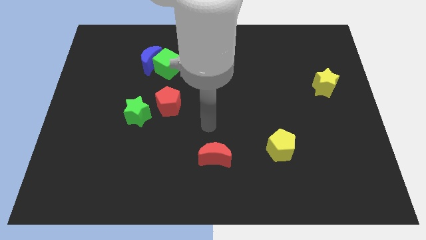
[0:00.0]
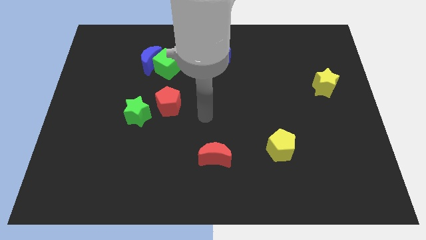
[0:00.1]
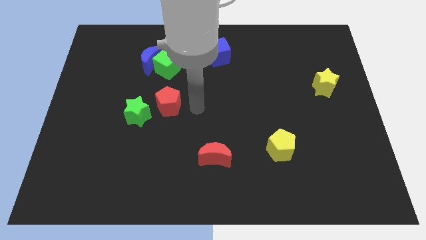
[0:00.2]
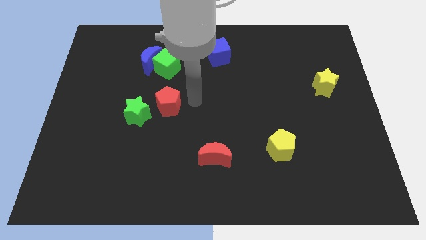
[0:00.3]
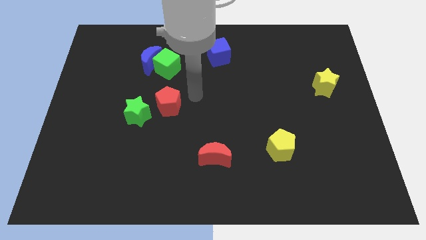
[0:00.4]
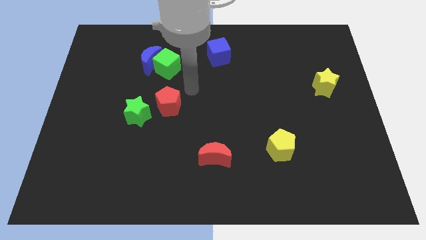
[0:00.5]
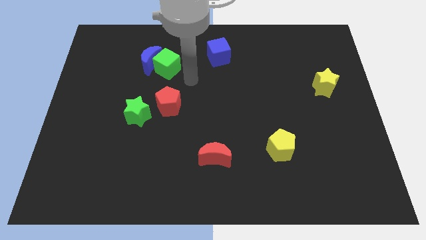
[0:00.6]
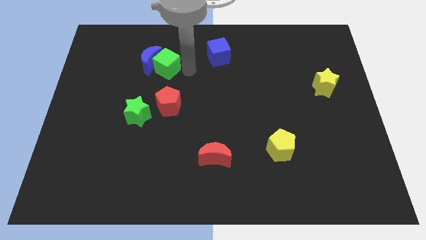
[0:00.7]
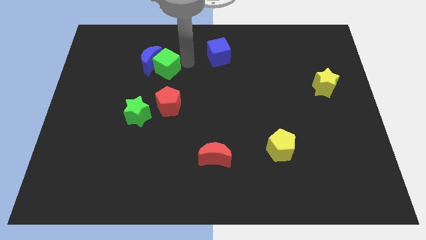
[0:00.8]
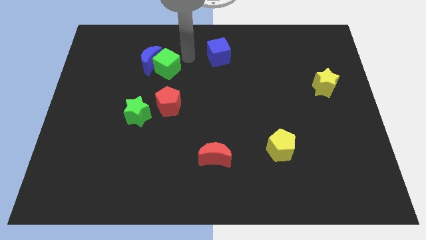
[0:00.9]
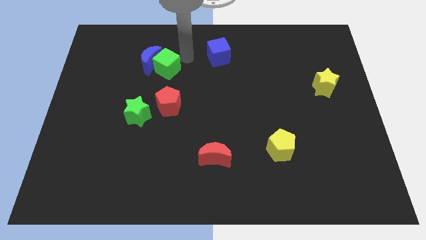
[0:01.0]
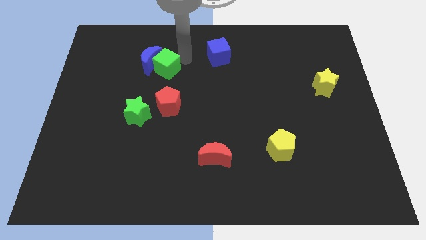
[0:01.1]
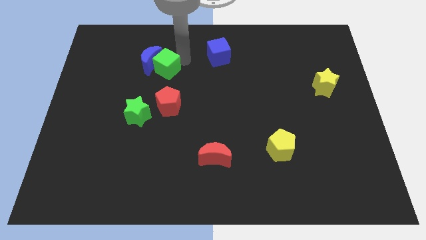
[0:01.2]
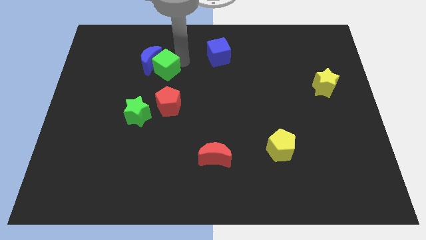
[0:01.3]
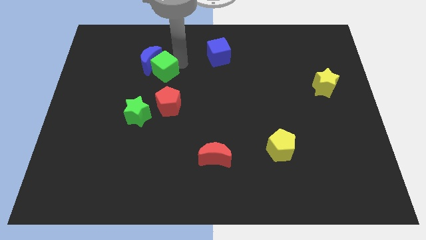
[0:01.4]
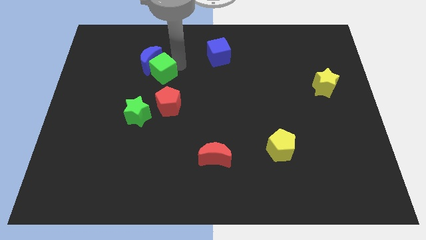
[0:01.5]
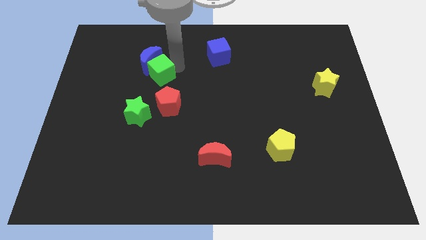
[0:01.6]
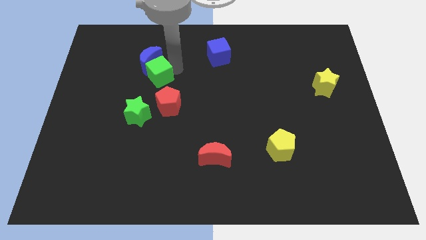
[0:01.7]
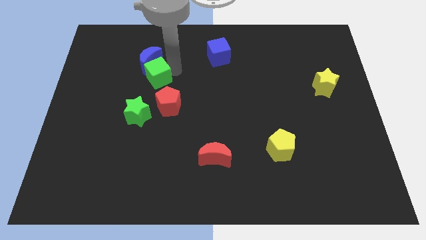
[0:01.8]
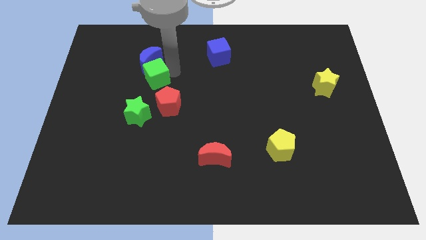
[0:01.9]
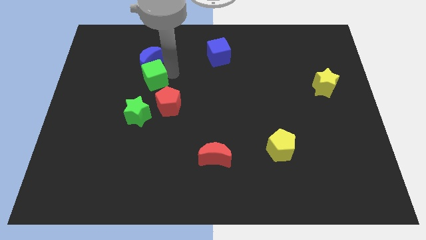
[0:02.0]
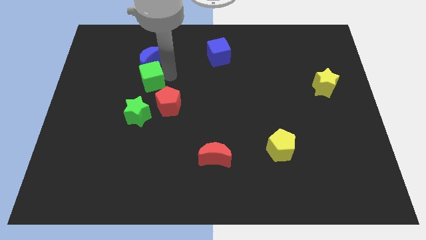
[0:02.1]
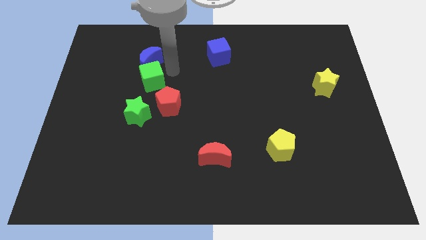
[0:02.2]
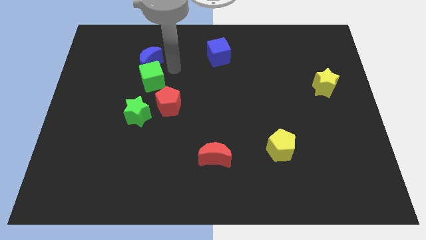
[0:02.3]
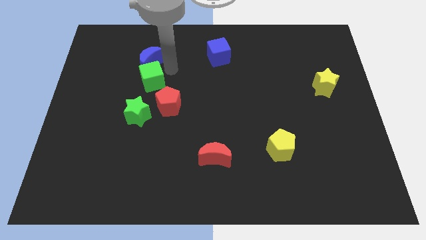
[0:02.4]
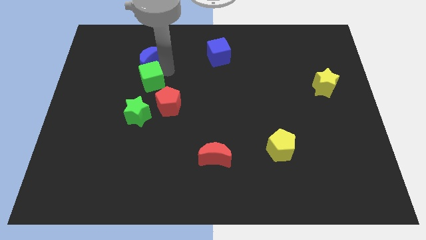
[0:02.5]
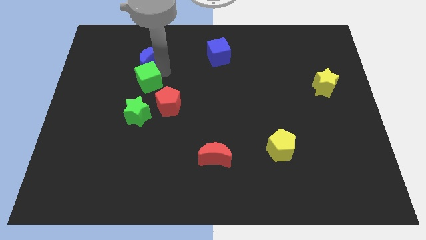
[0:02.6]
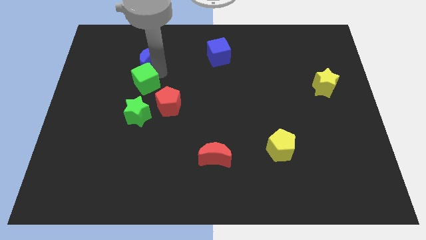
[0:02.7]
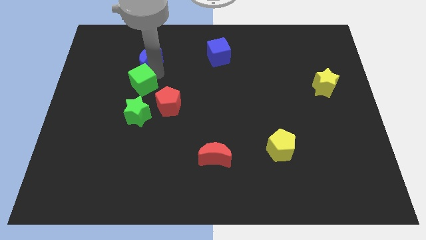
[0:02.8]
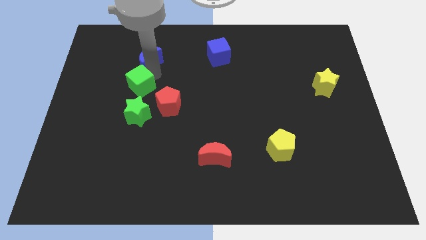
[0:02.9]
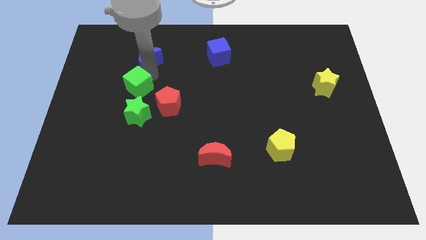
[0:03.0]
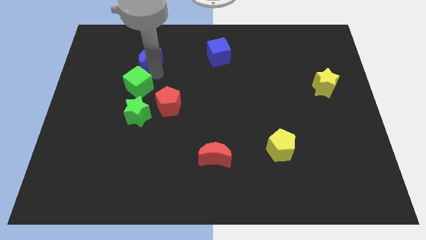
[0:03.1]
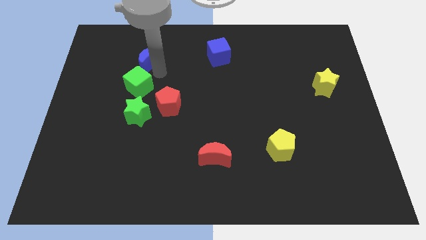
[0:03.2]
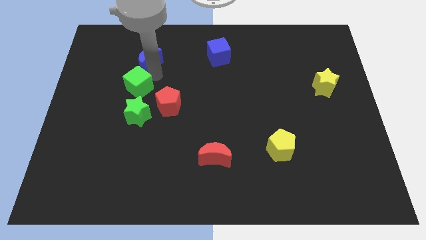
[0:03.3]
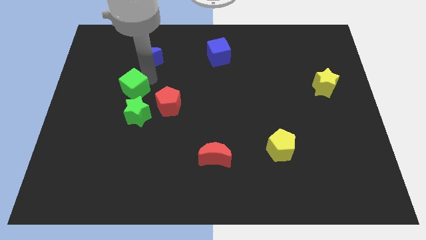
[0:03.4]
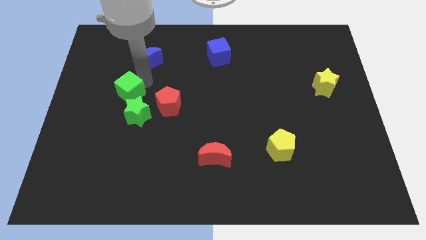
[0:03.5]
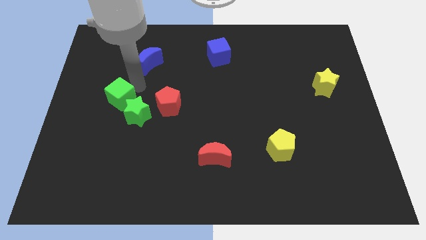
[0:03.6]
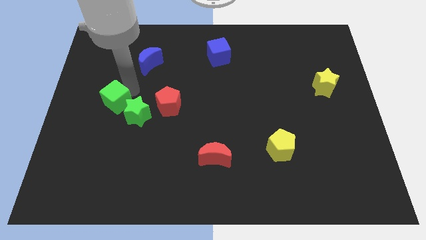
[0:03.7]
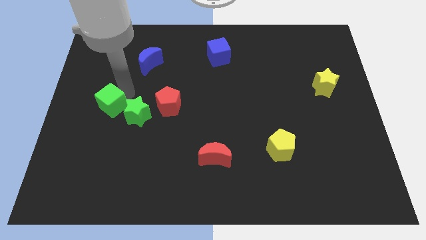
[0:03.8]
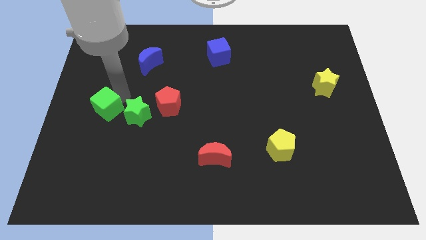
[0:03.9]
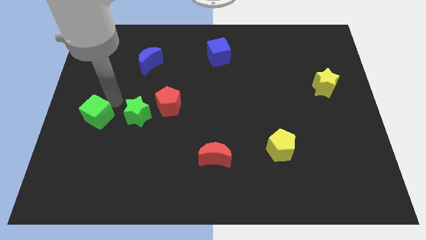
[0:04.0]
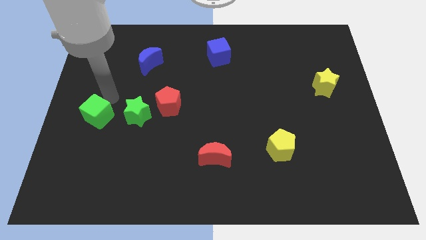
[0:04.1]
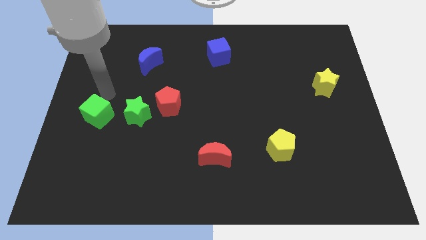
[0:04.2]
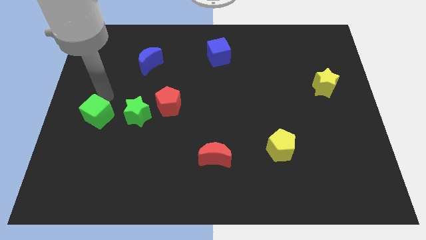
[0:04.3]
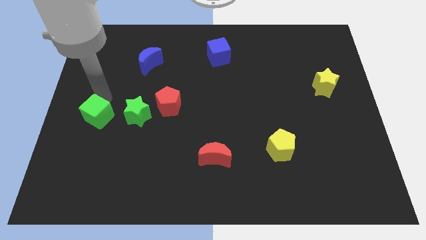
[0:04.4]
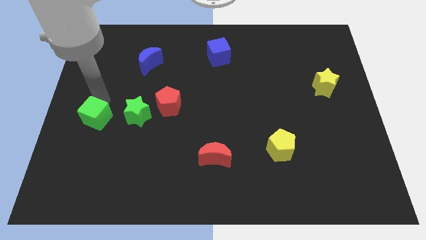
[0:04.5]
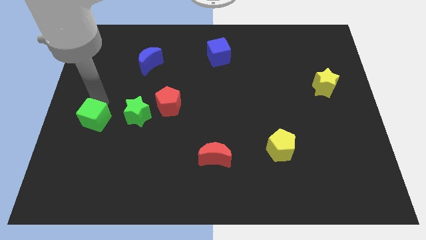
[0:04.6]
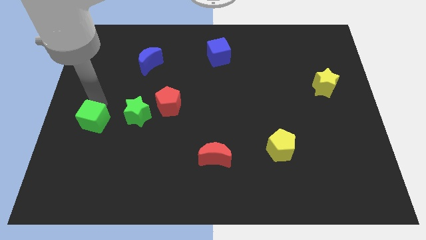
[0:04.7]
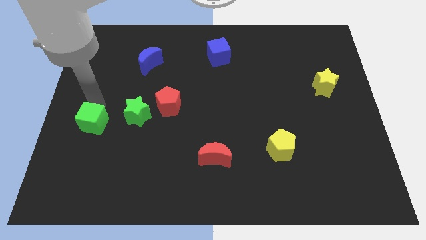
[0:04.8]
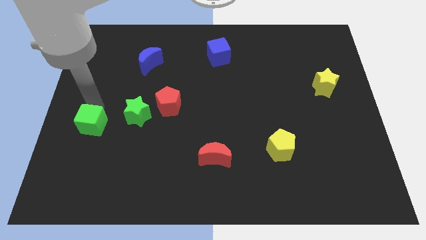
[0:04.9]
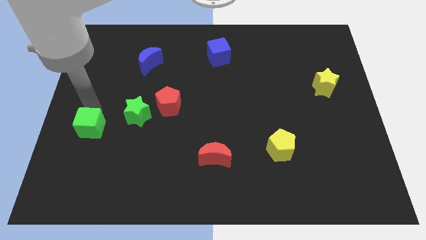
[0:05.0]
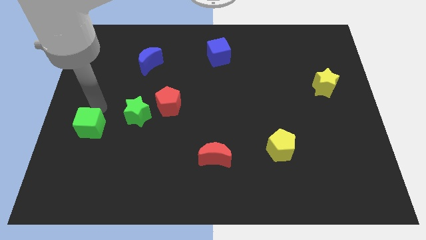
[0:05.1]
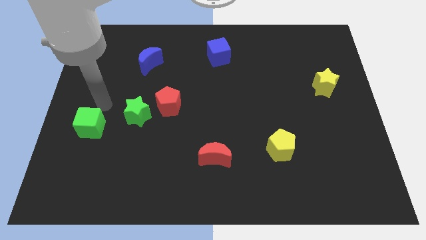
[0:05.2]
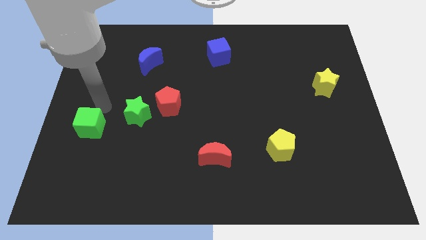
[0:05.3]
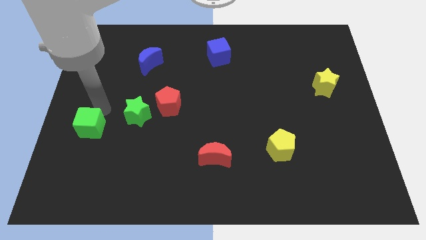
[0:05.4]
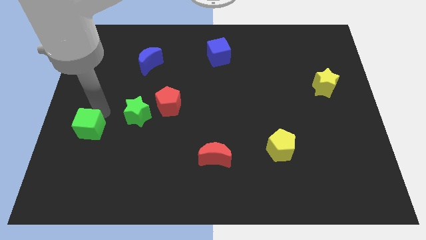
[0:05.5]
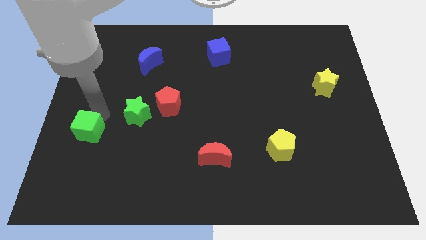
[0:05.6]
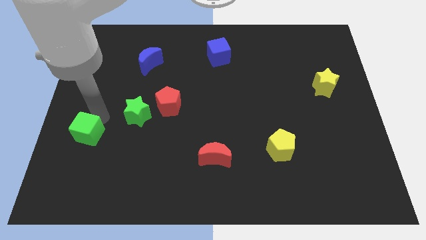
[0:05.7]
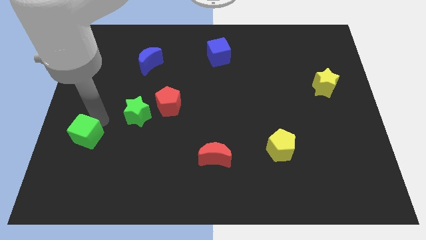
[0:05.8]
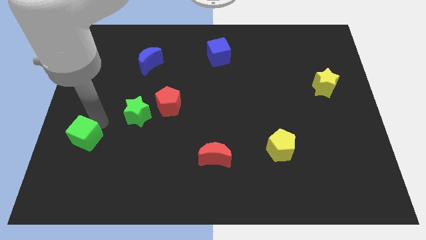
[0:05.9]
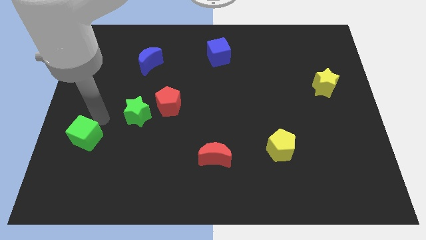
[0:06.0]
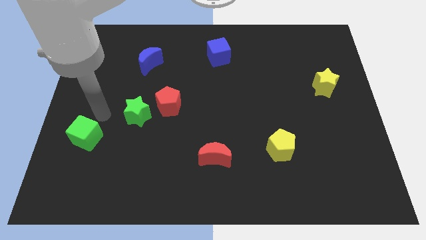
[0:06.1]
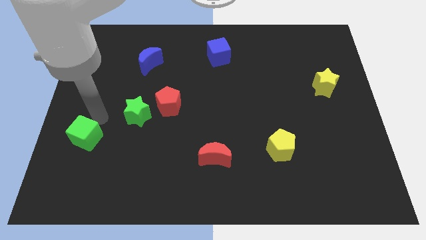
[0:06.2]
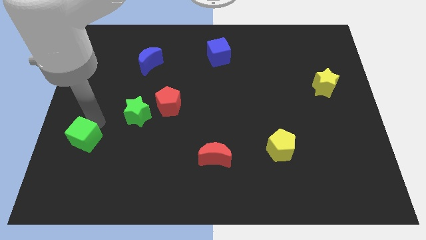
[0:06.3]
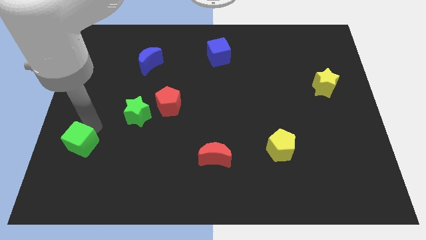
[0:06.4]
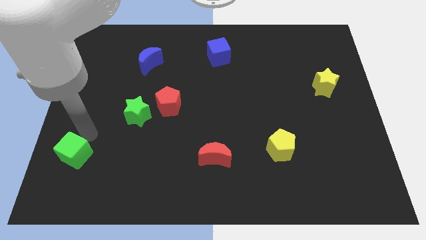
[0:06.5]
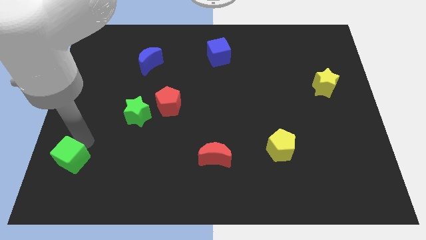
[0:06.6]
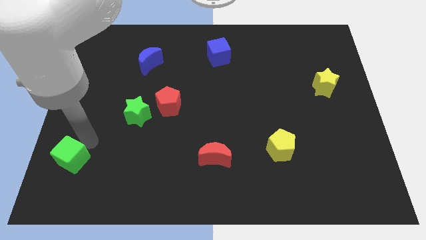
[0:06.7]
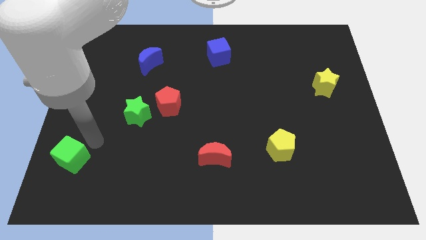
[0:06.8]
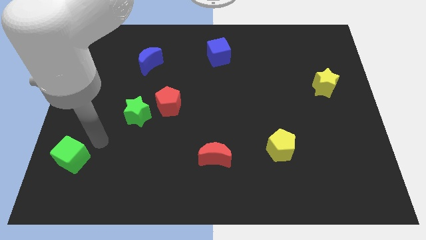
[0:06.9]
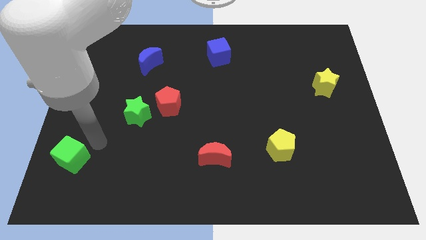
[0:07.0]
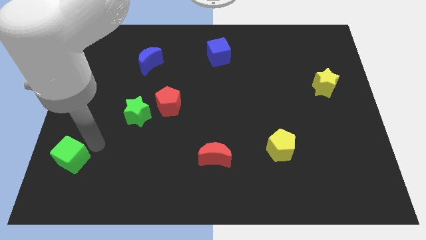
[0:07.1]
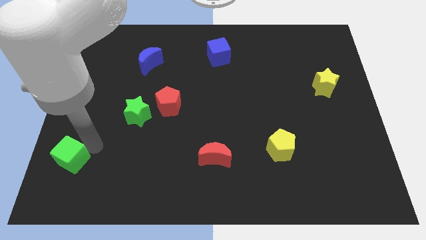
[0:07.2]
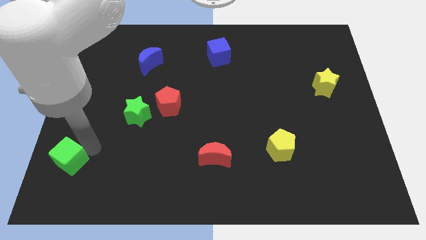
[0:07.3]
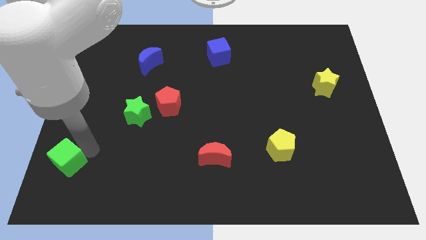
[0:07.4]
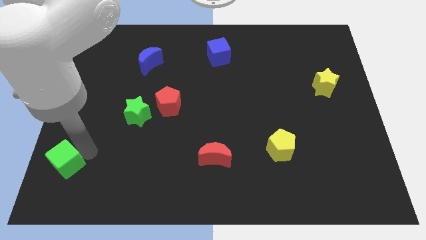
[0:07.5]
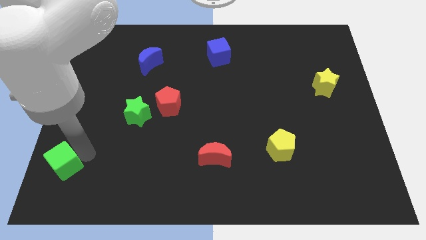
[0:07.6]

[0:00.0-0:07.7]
put the green cube to the bottom left corner
